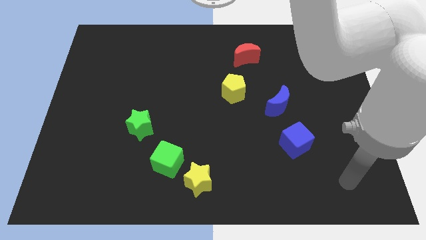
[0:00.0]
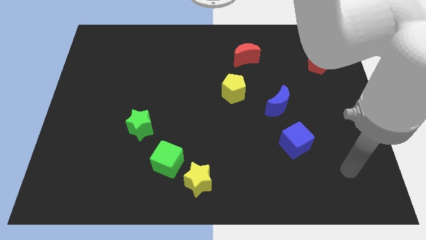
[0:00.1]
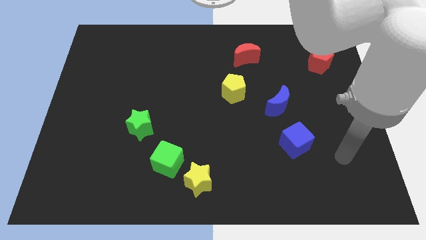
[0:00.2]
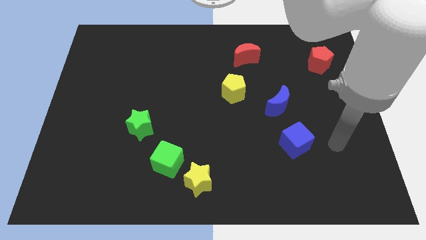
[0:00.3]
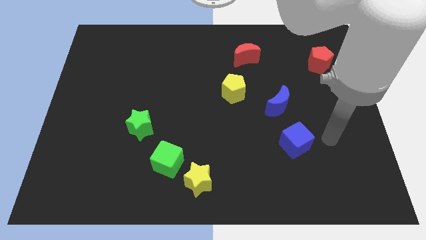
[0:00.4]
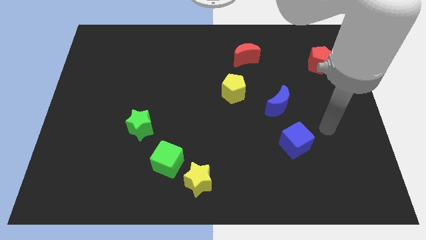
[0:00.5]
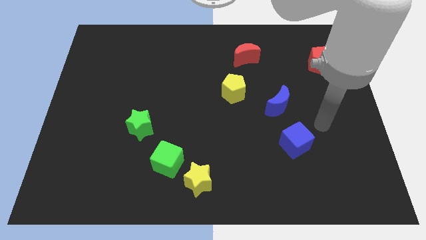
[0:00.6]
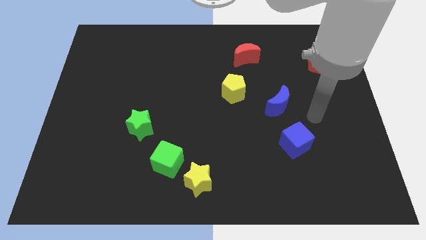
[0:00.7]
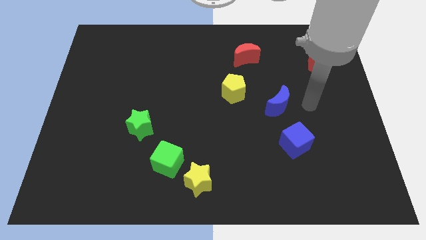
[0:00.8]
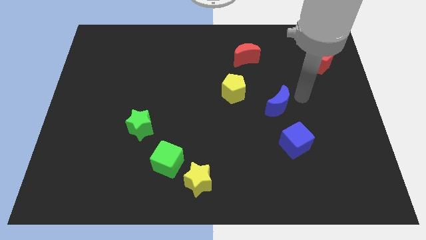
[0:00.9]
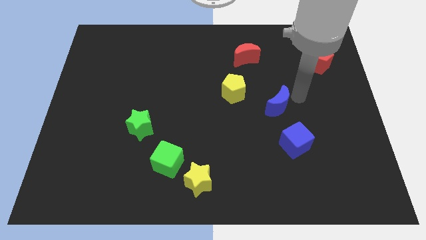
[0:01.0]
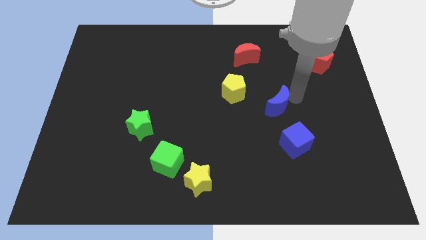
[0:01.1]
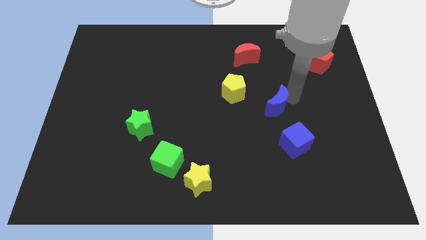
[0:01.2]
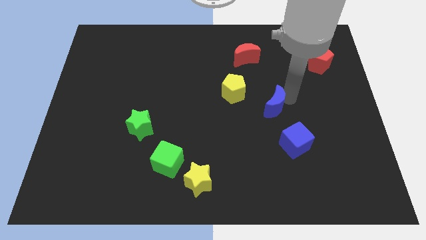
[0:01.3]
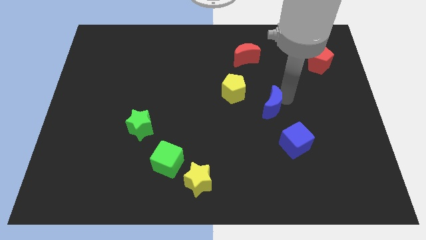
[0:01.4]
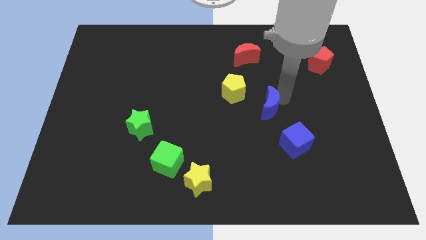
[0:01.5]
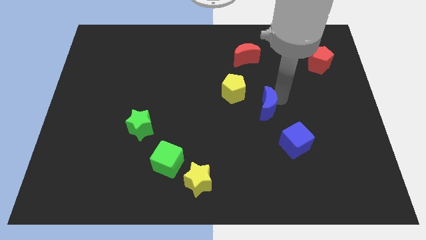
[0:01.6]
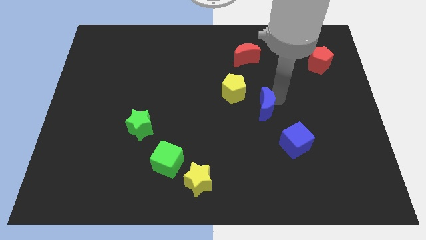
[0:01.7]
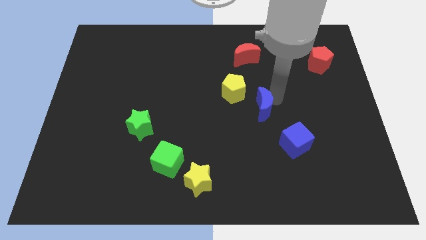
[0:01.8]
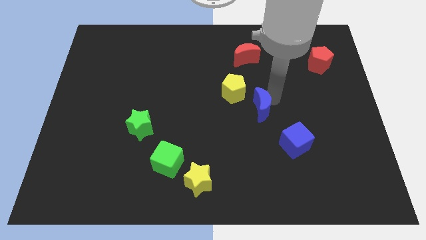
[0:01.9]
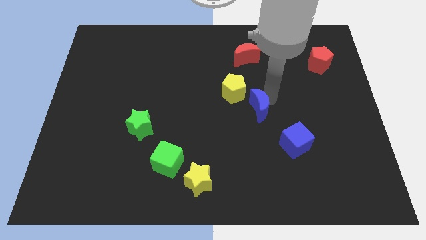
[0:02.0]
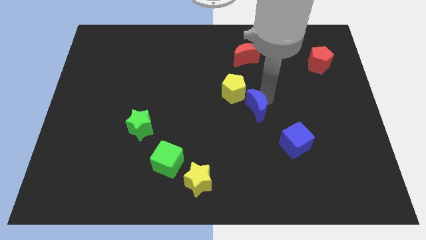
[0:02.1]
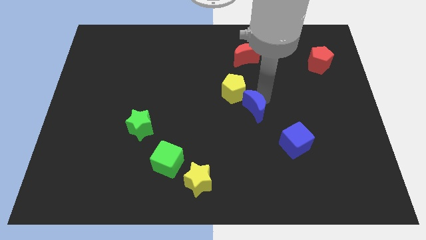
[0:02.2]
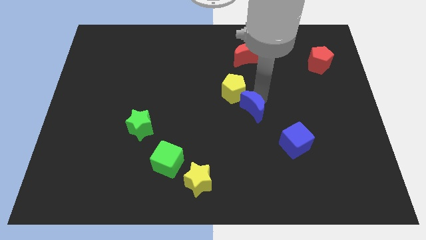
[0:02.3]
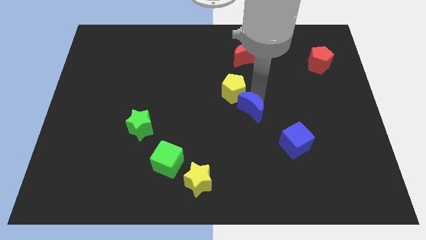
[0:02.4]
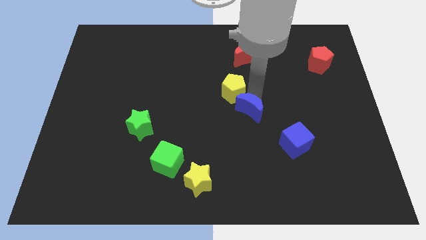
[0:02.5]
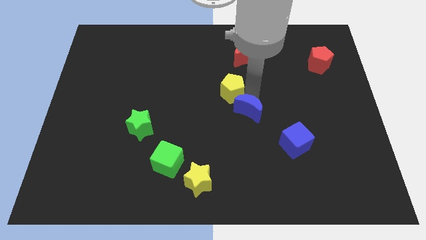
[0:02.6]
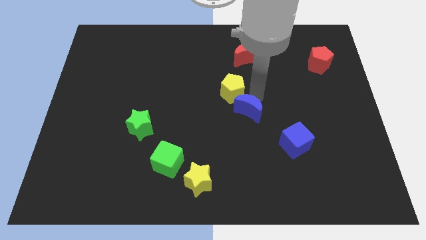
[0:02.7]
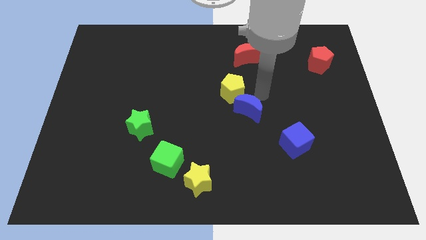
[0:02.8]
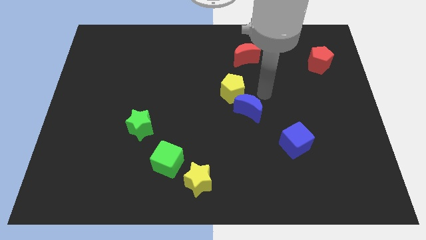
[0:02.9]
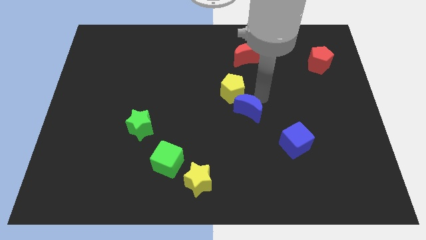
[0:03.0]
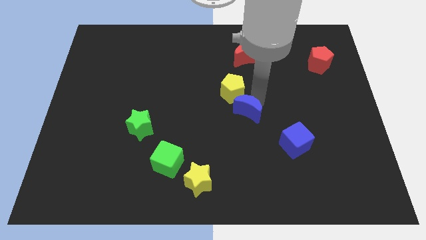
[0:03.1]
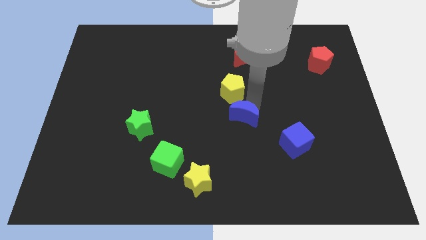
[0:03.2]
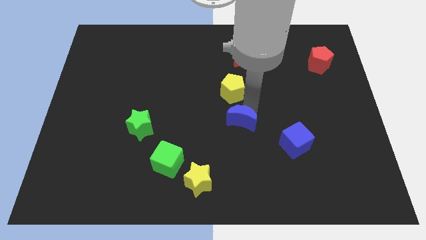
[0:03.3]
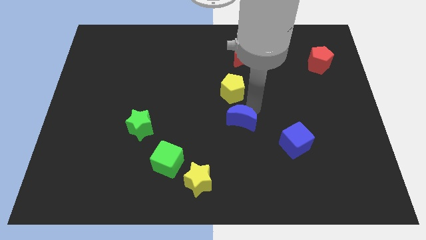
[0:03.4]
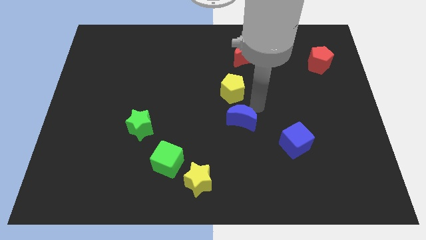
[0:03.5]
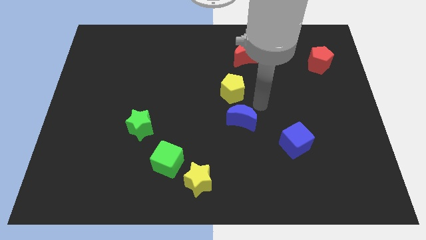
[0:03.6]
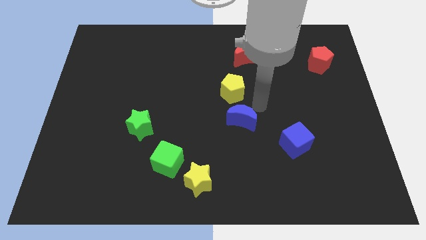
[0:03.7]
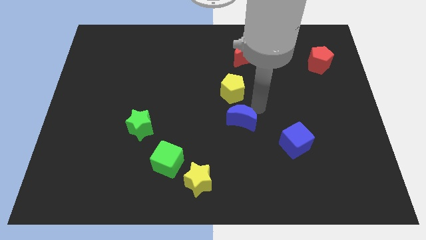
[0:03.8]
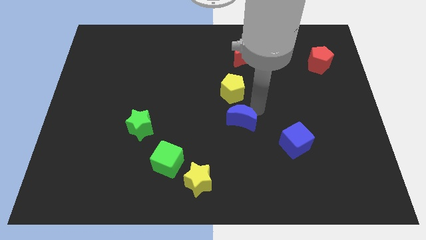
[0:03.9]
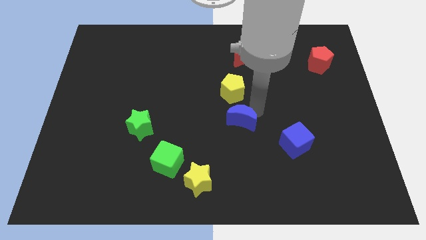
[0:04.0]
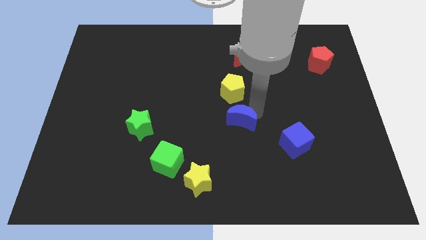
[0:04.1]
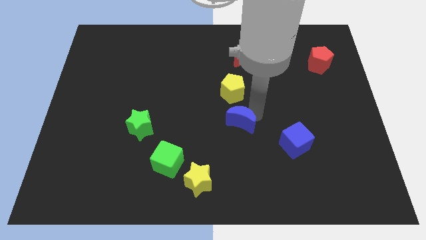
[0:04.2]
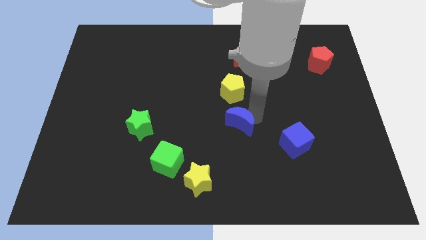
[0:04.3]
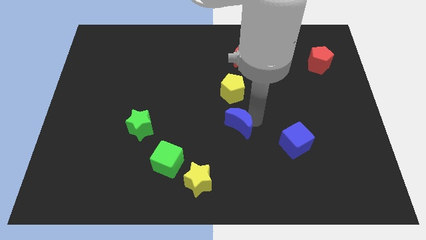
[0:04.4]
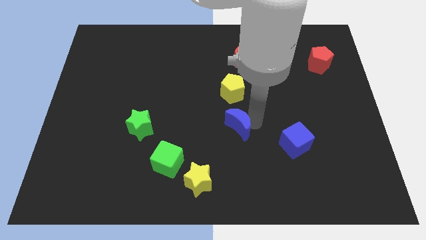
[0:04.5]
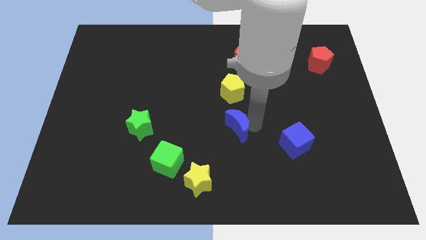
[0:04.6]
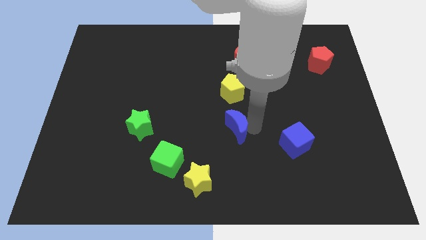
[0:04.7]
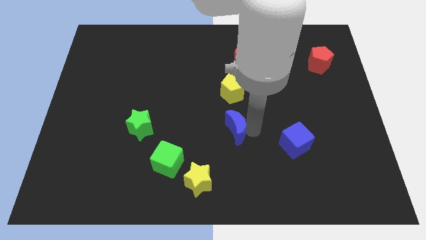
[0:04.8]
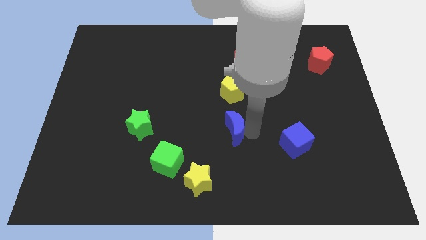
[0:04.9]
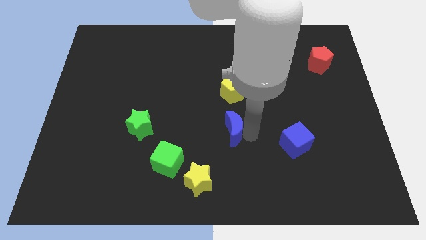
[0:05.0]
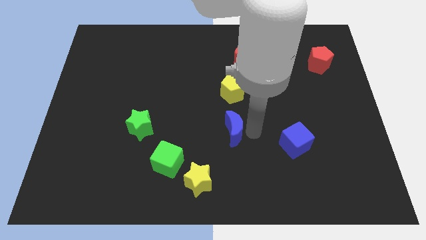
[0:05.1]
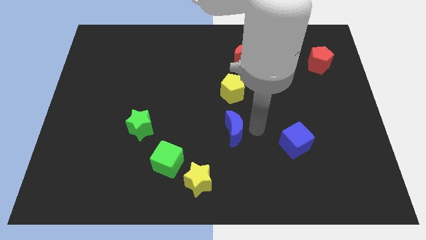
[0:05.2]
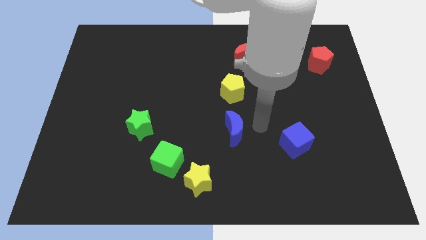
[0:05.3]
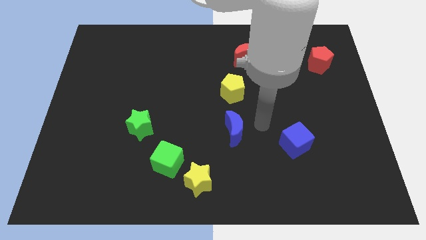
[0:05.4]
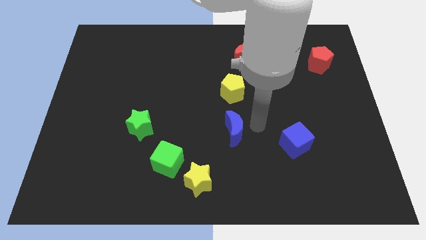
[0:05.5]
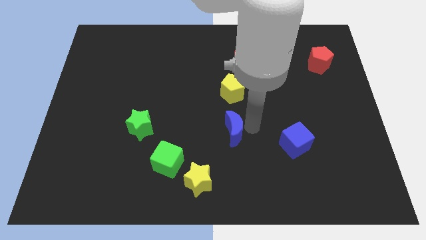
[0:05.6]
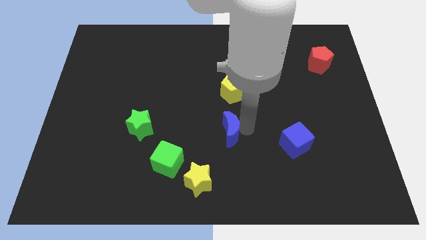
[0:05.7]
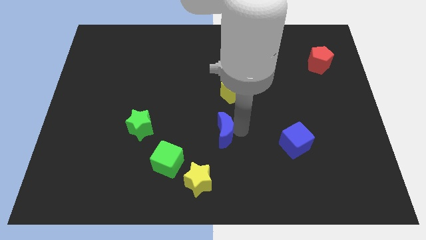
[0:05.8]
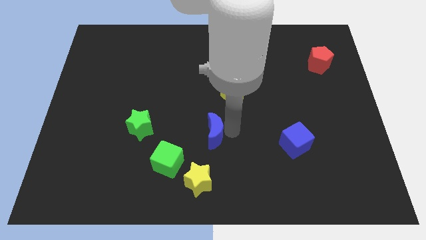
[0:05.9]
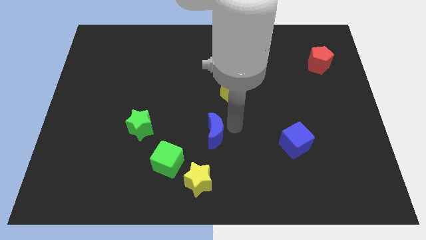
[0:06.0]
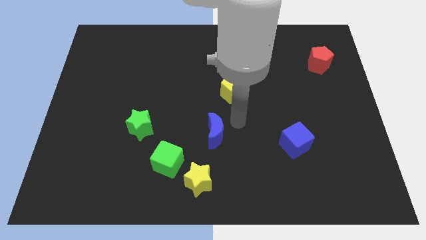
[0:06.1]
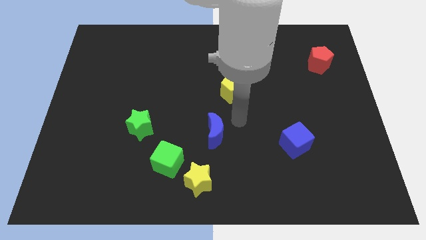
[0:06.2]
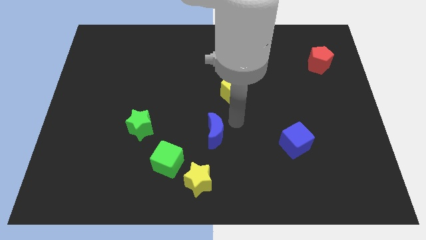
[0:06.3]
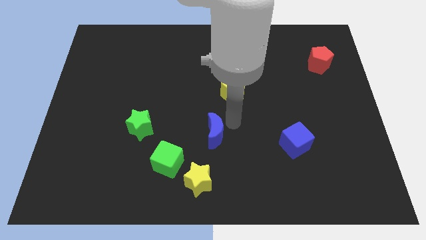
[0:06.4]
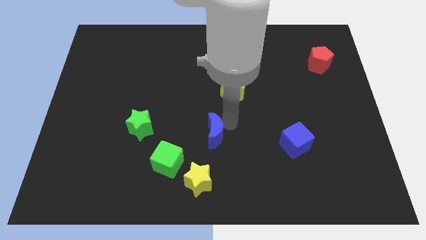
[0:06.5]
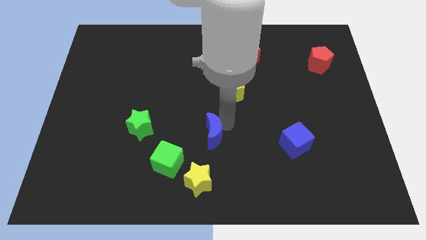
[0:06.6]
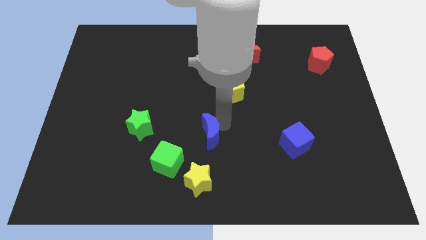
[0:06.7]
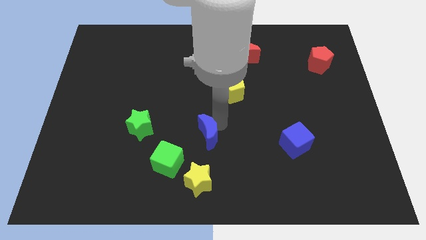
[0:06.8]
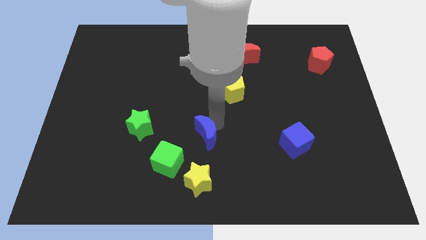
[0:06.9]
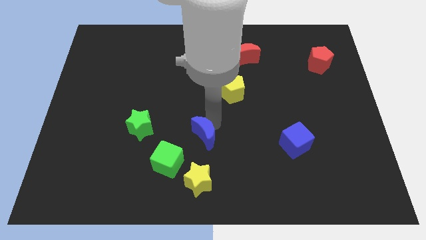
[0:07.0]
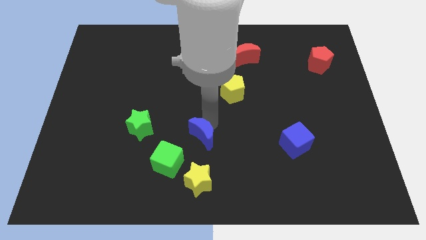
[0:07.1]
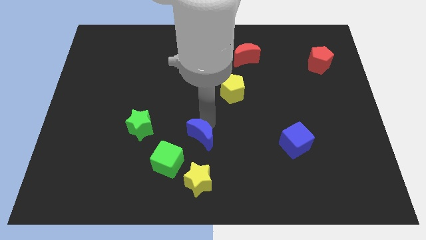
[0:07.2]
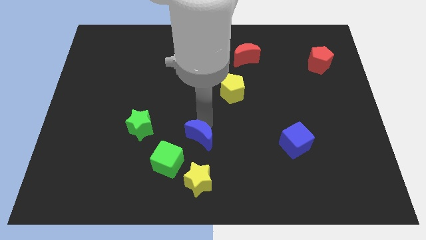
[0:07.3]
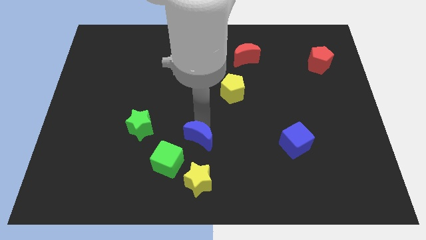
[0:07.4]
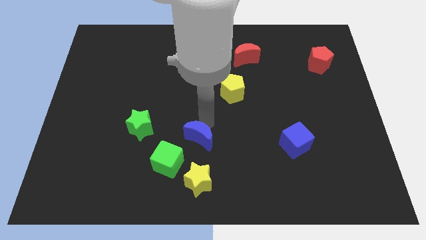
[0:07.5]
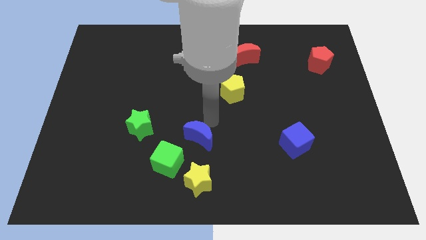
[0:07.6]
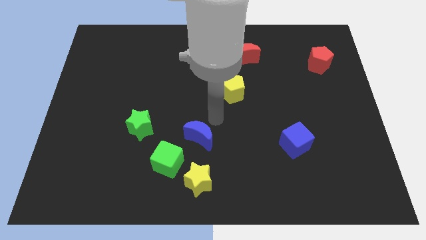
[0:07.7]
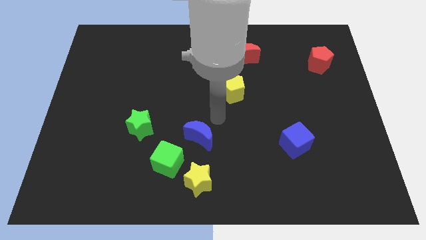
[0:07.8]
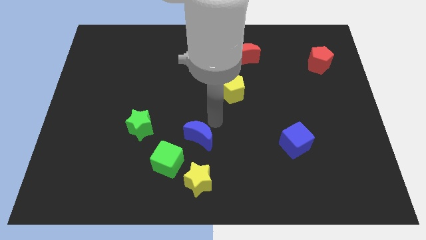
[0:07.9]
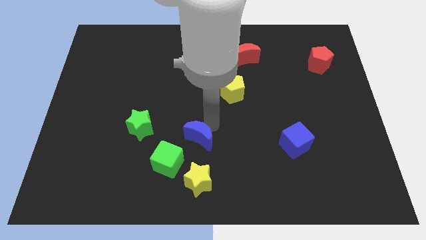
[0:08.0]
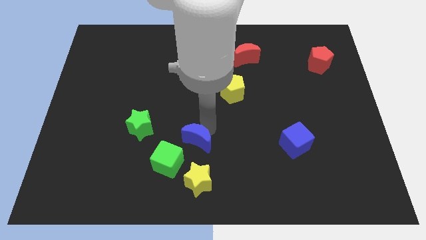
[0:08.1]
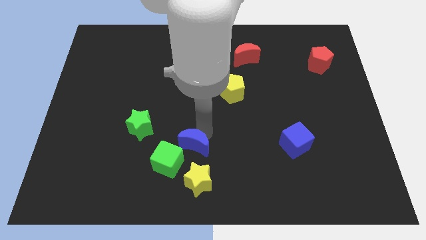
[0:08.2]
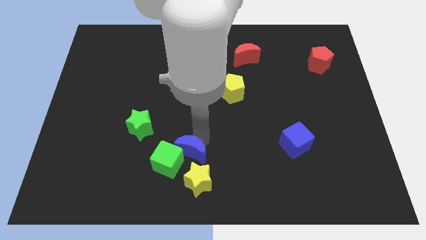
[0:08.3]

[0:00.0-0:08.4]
slide the blue moon close to the green cube
